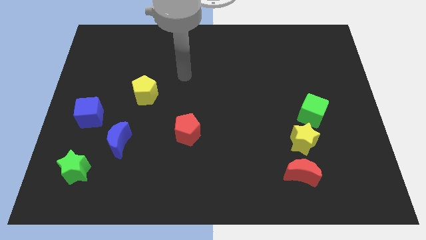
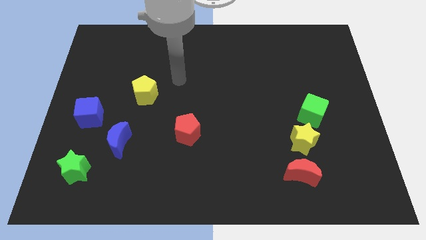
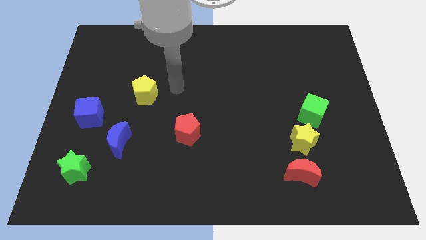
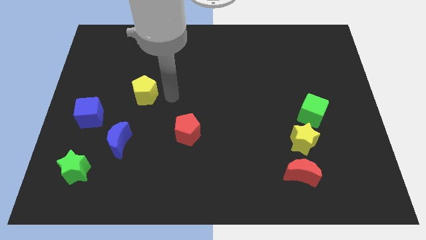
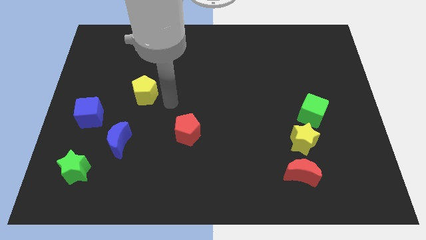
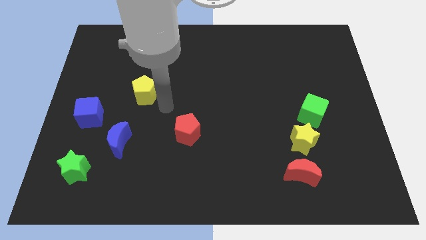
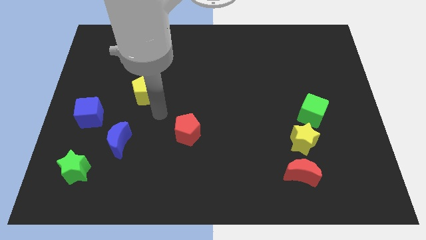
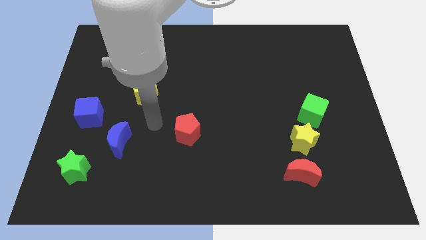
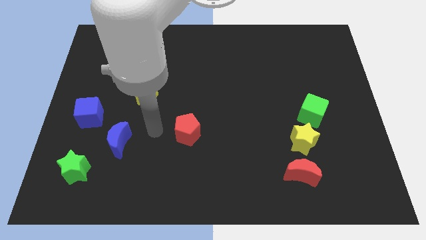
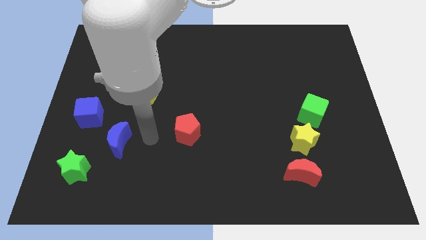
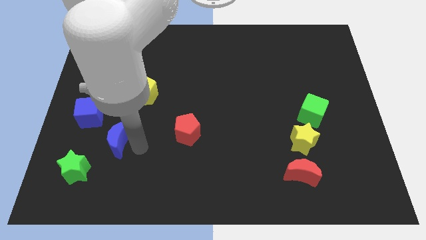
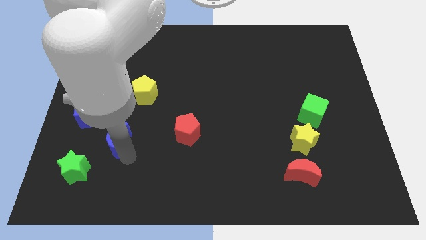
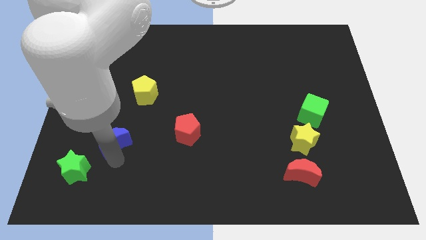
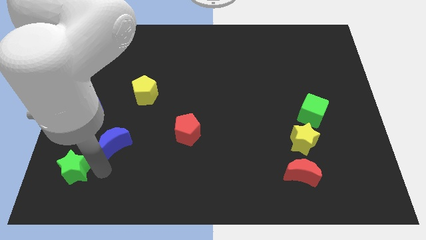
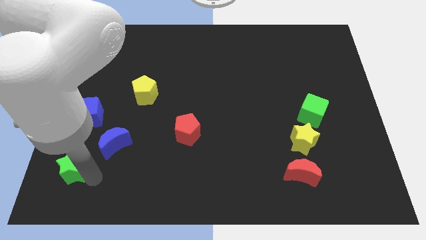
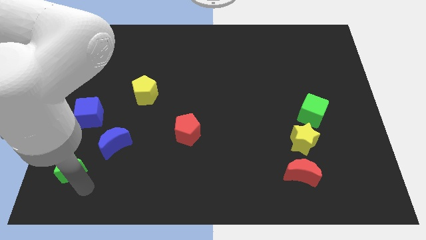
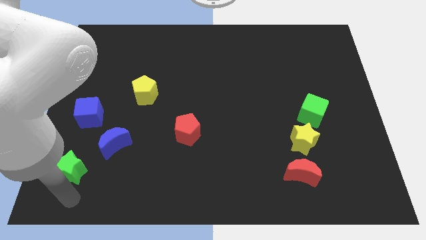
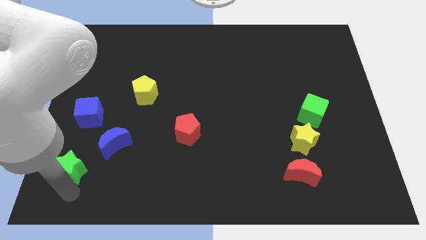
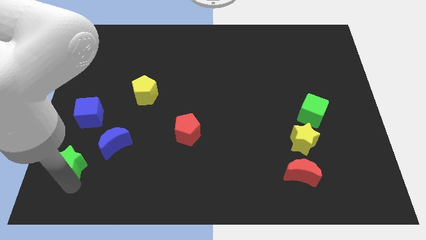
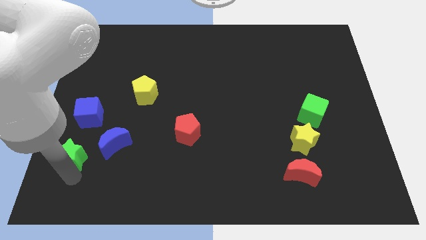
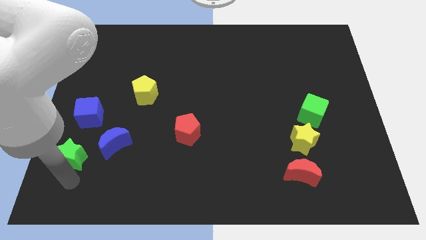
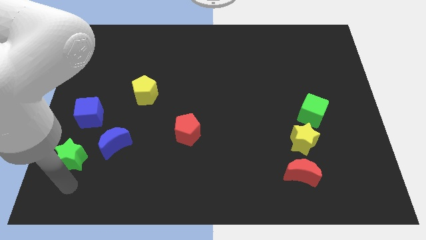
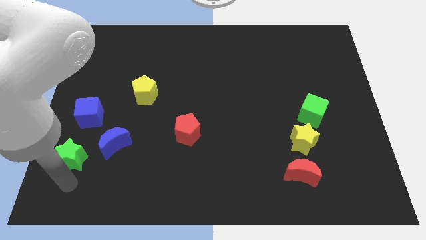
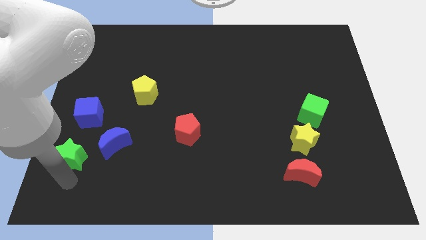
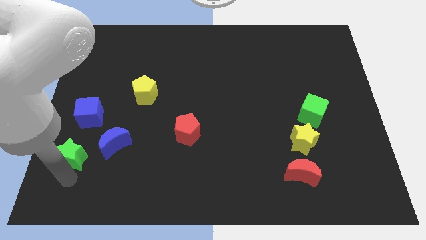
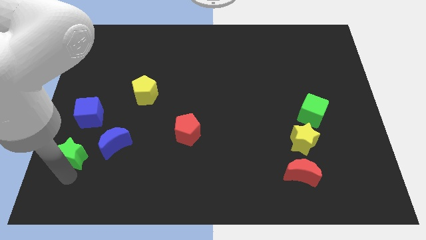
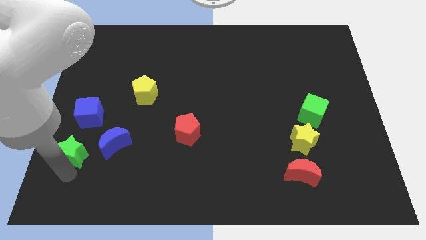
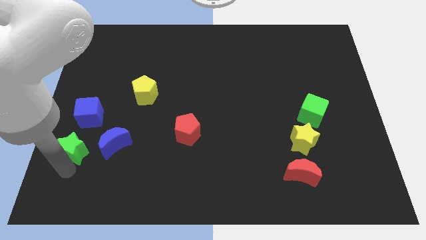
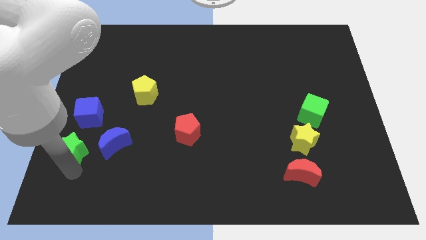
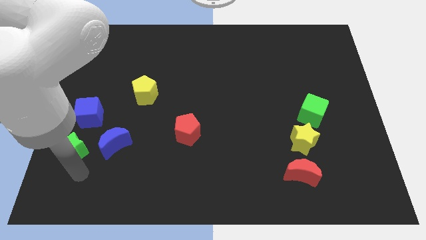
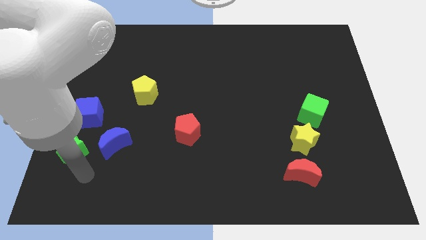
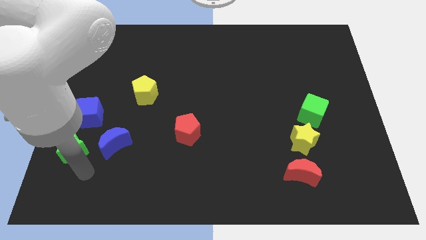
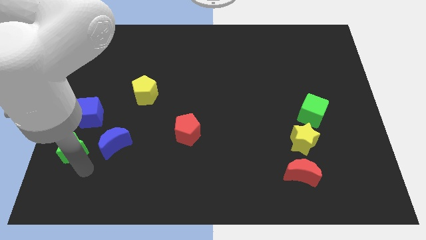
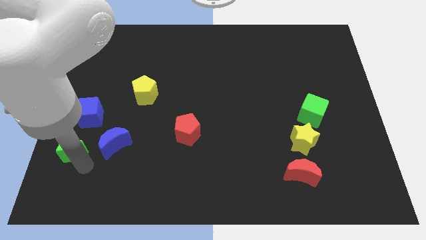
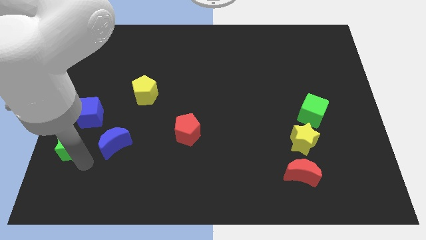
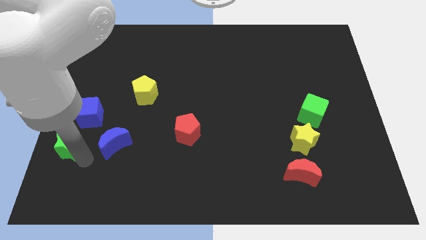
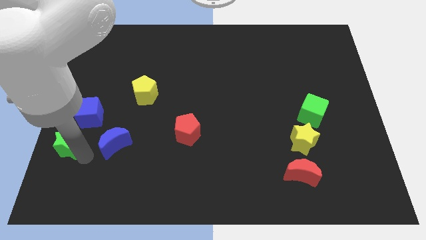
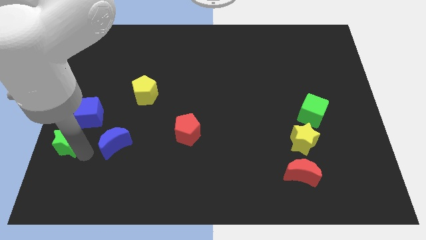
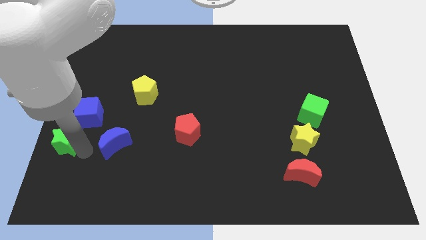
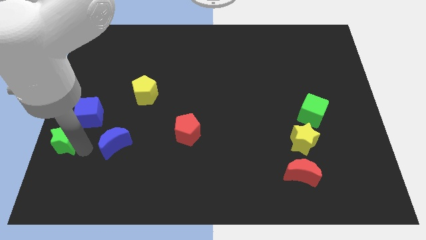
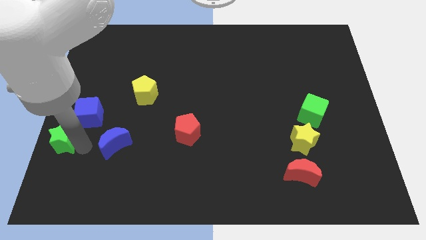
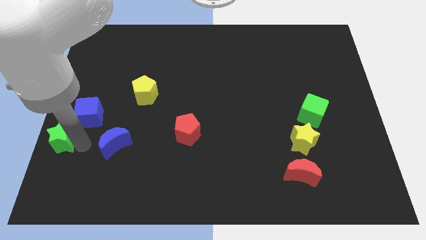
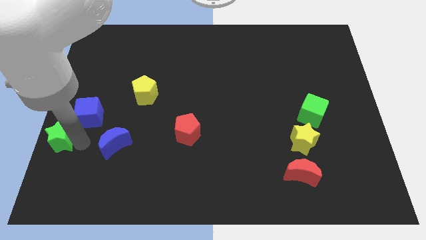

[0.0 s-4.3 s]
move the green star upwards a little

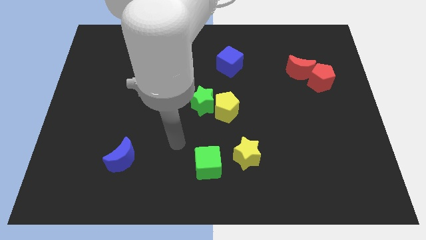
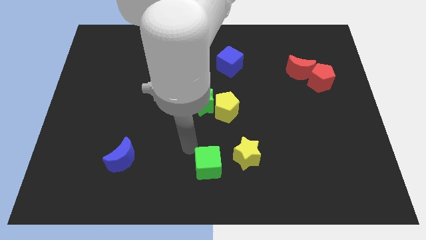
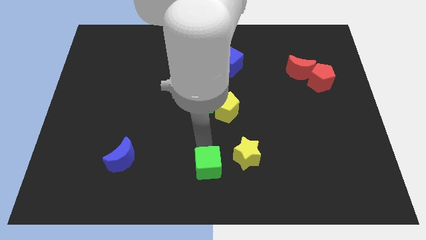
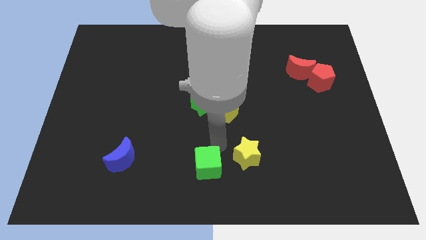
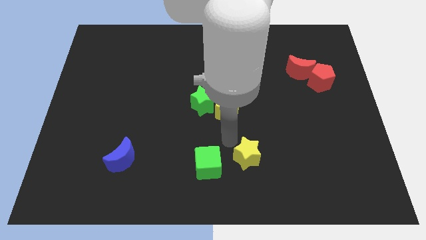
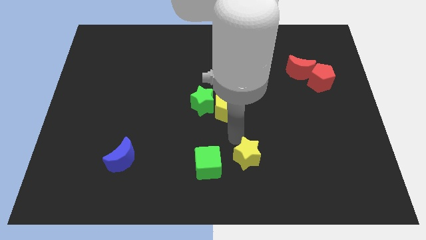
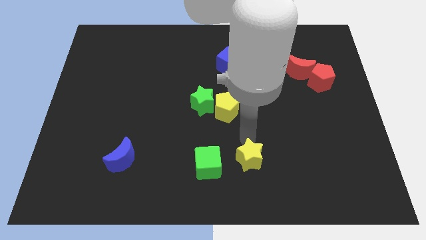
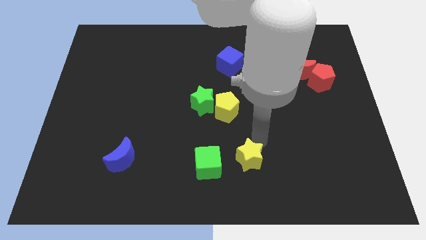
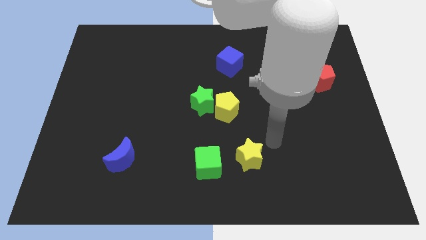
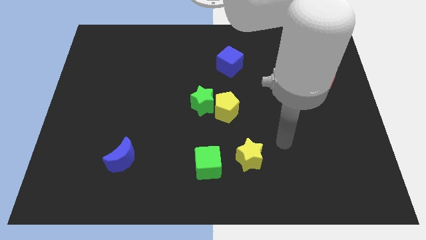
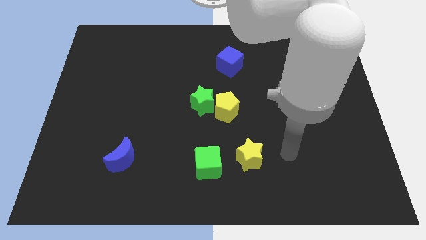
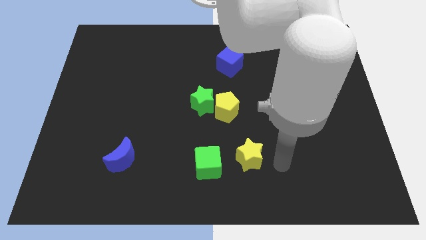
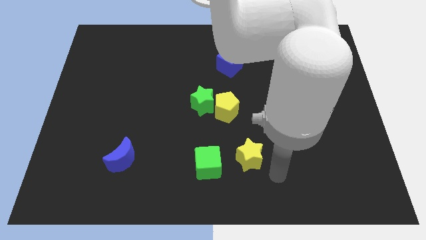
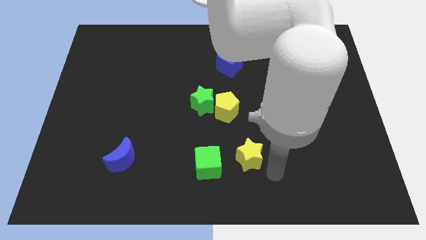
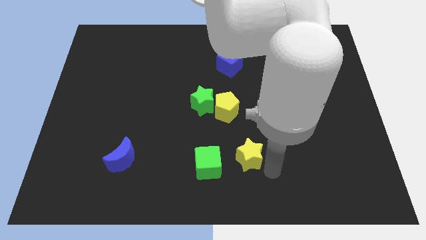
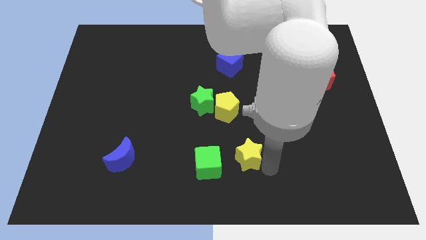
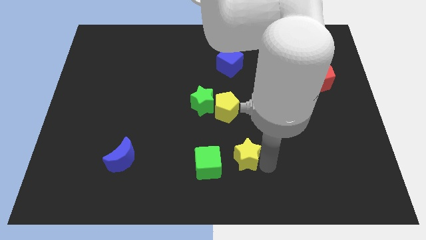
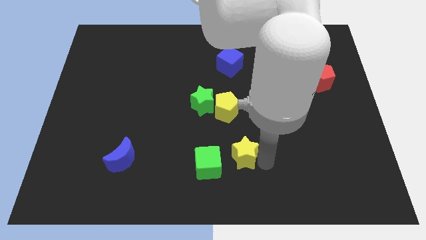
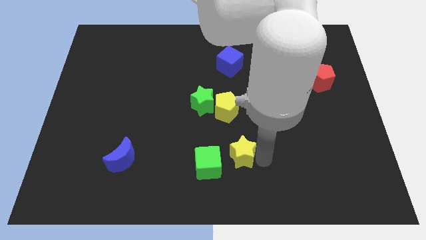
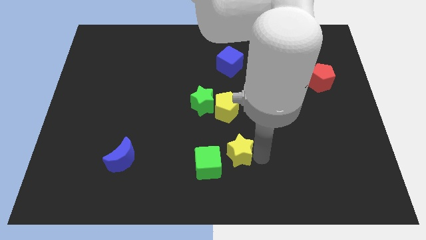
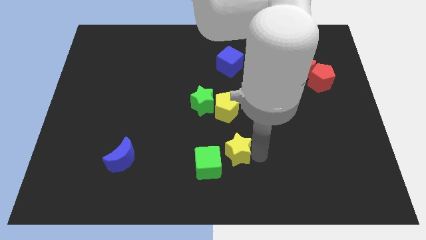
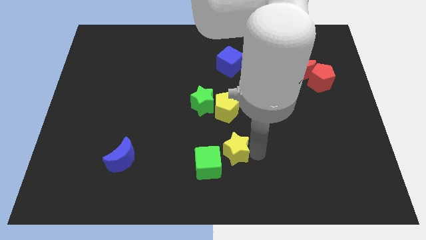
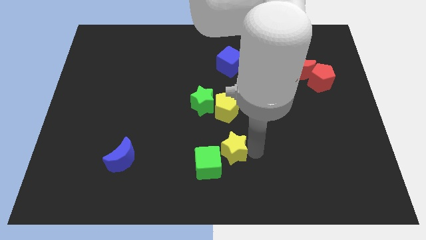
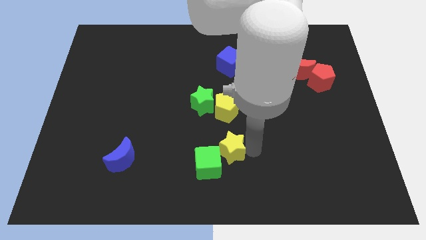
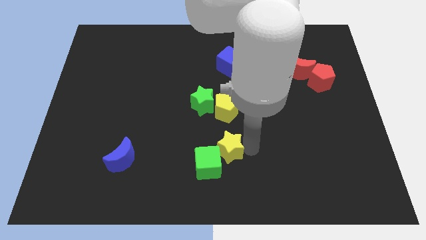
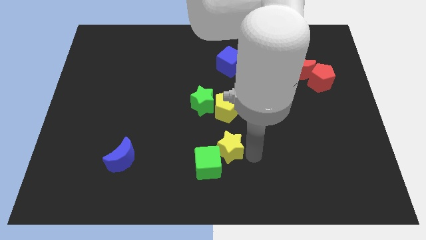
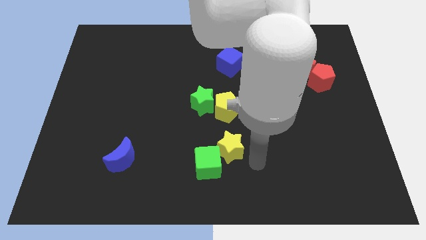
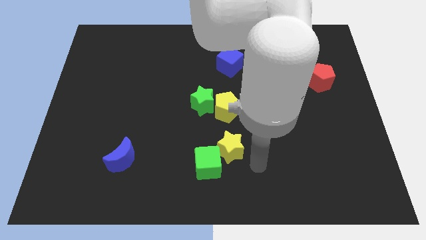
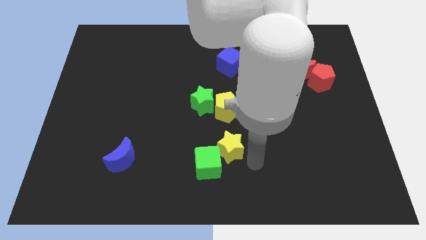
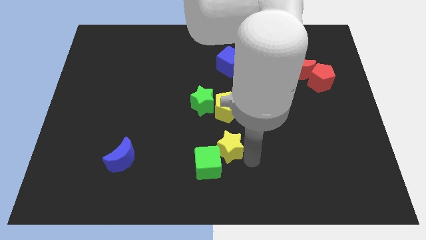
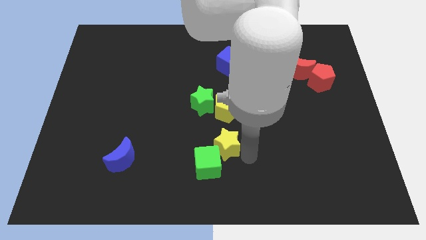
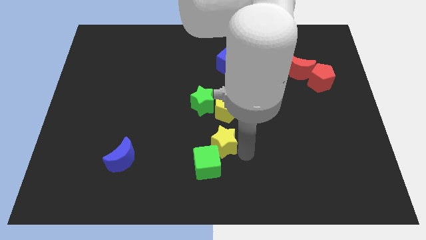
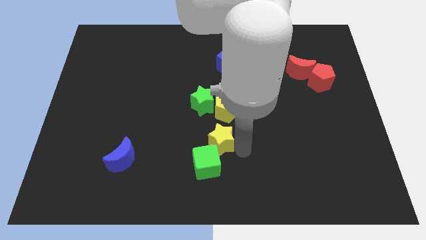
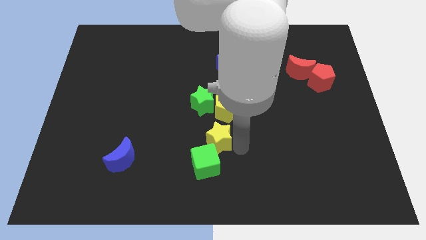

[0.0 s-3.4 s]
push the yellow star a bit upwards and then to the left

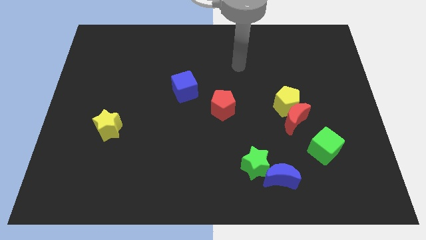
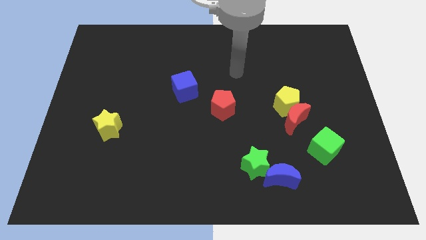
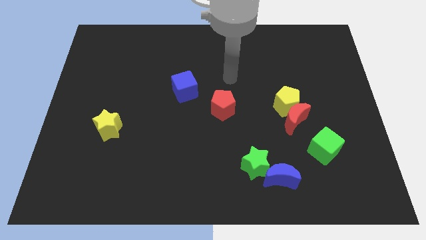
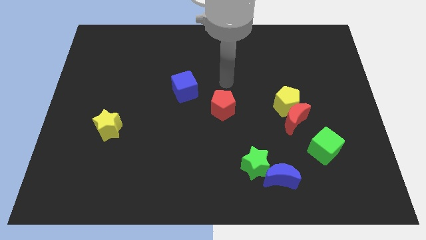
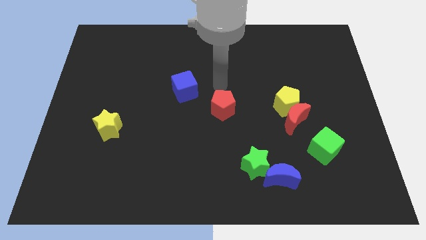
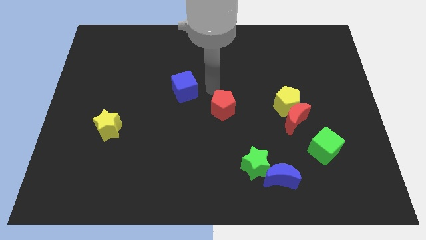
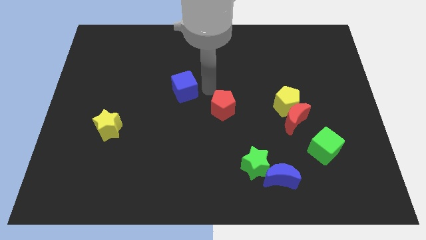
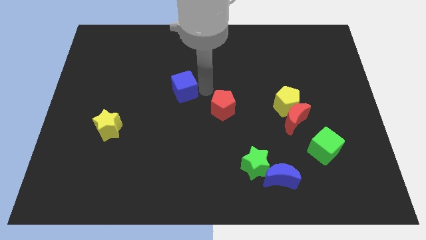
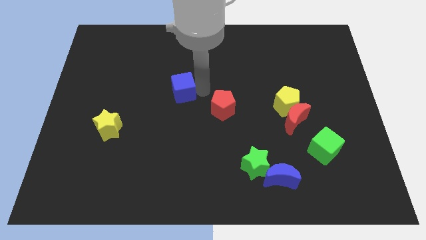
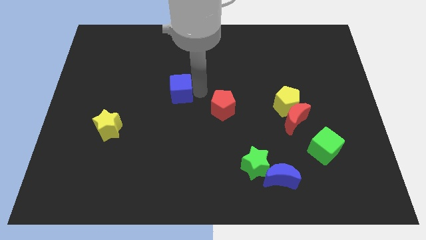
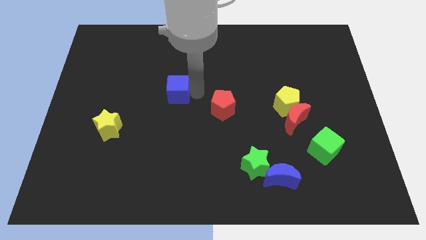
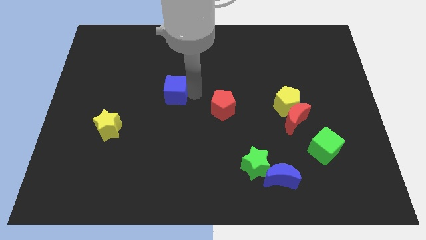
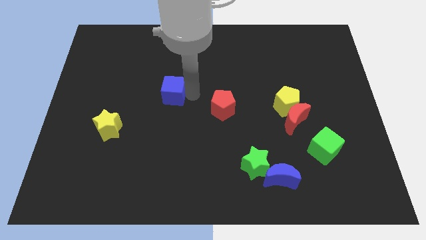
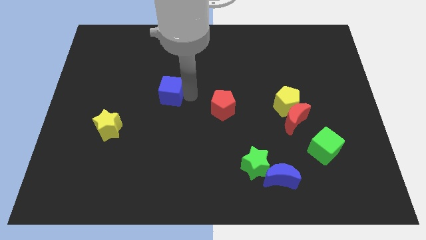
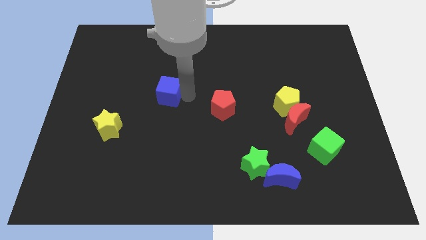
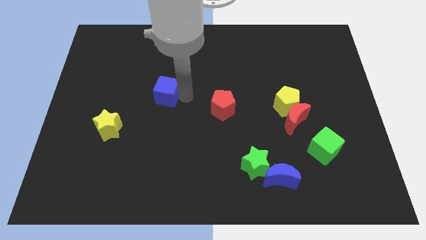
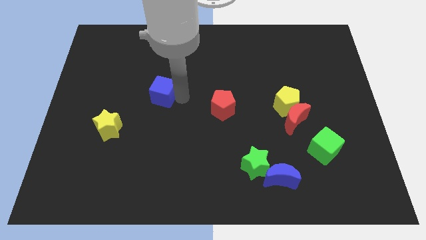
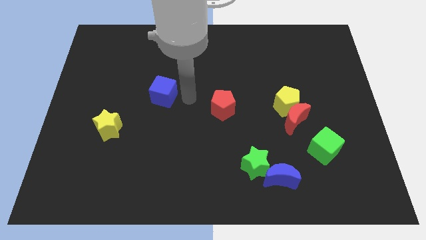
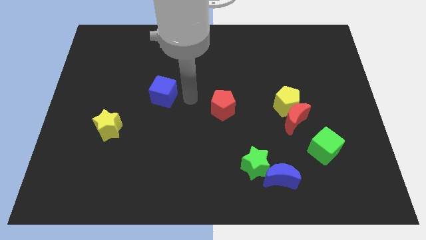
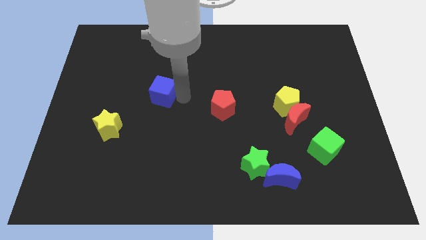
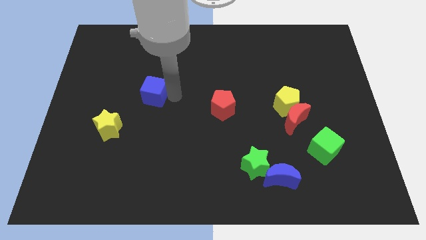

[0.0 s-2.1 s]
push the blue cube left somewhat
